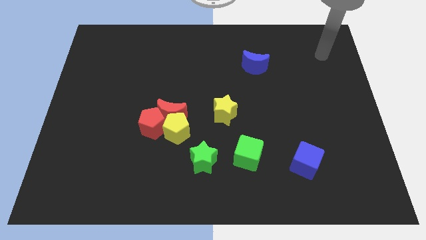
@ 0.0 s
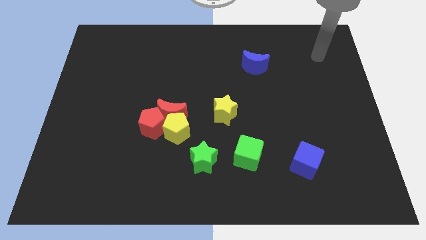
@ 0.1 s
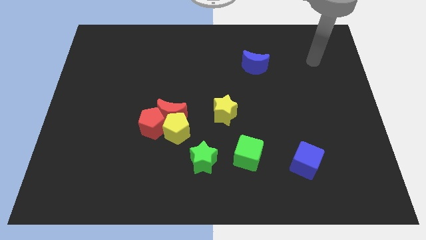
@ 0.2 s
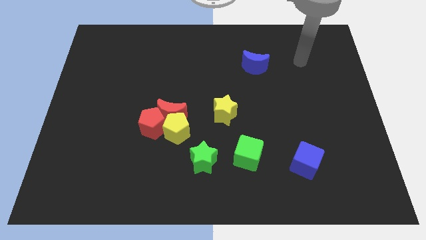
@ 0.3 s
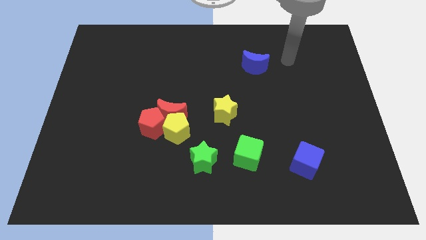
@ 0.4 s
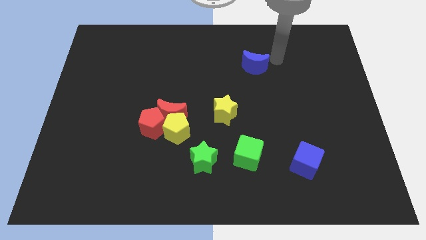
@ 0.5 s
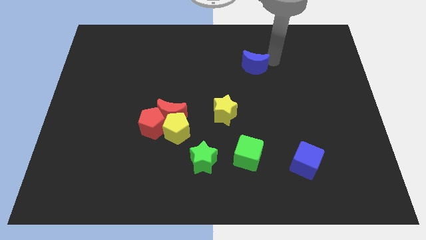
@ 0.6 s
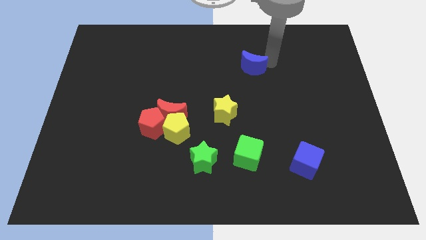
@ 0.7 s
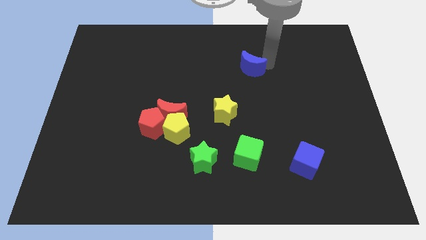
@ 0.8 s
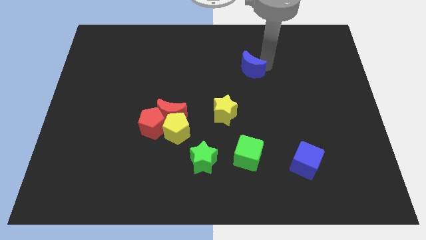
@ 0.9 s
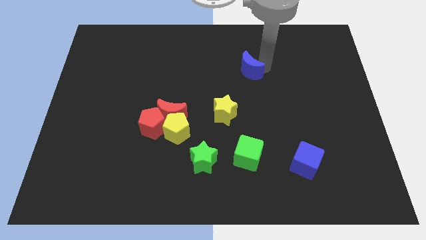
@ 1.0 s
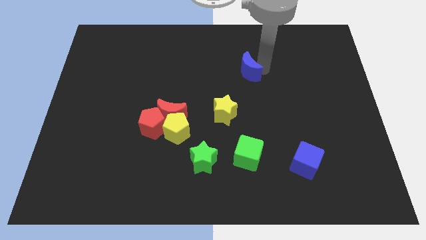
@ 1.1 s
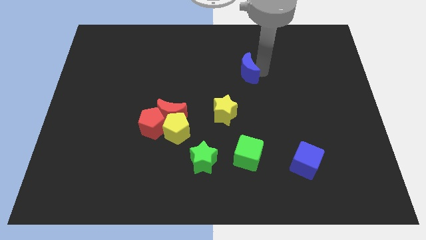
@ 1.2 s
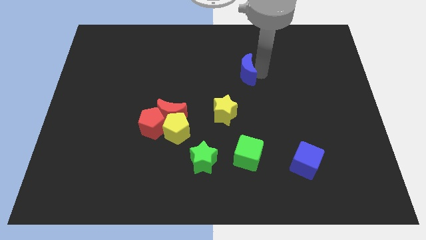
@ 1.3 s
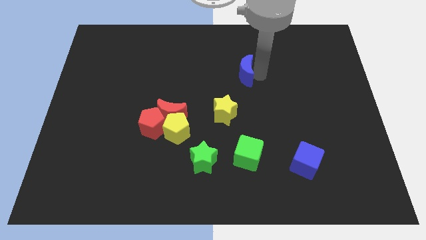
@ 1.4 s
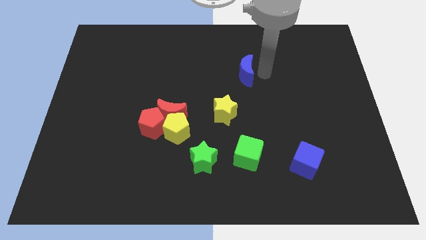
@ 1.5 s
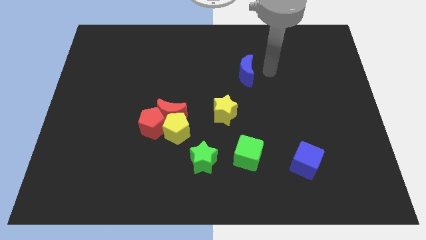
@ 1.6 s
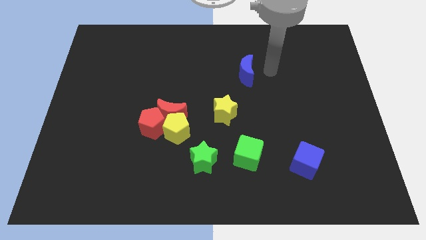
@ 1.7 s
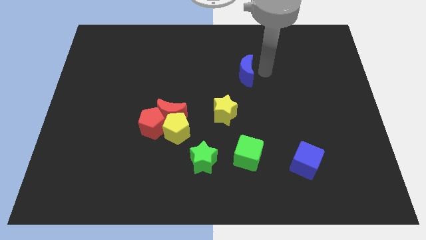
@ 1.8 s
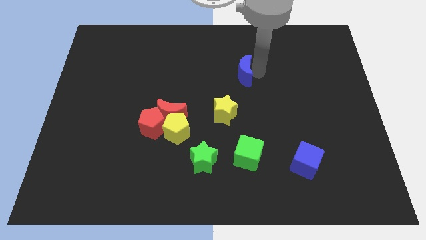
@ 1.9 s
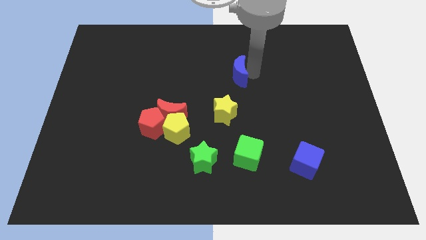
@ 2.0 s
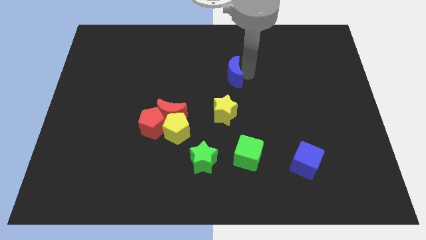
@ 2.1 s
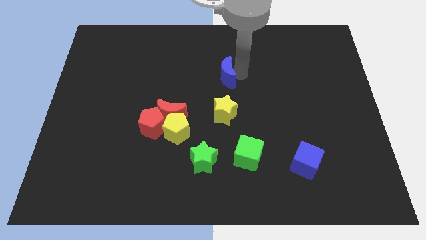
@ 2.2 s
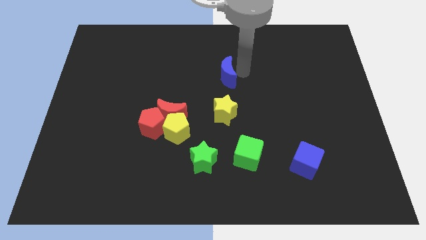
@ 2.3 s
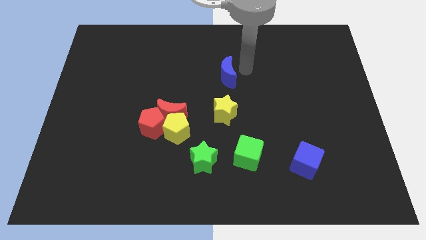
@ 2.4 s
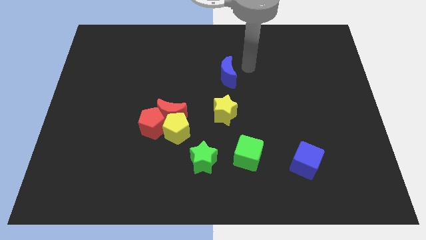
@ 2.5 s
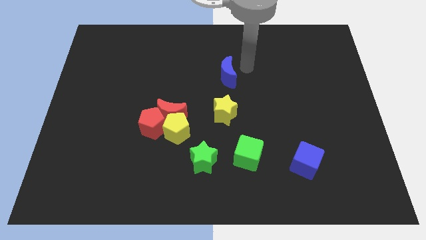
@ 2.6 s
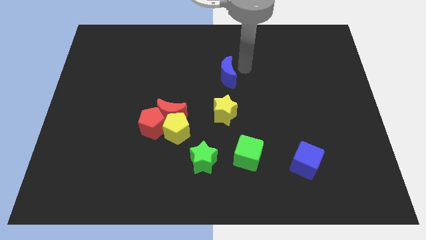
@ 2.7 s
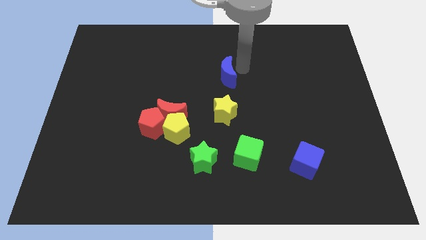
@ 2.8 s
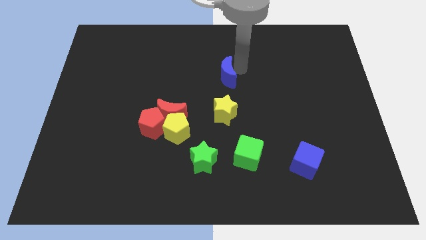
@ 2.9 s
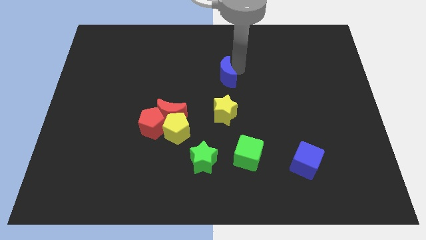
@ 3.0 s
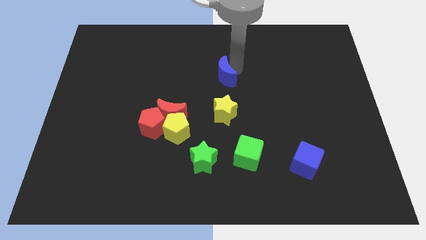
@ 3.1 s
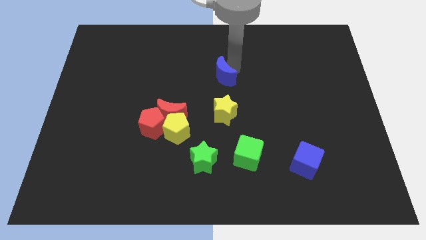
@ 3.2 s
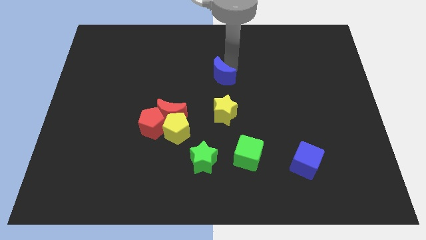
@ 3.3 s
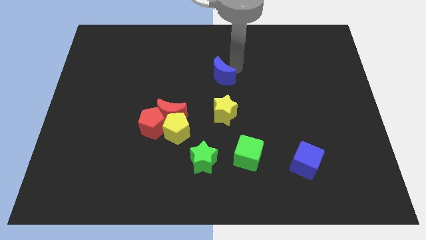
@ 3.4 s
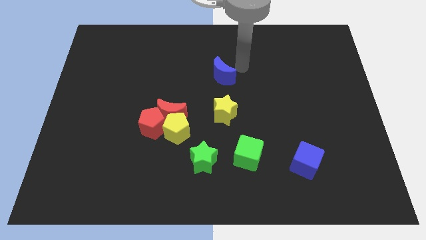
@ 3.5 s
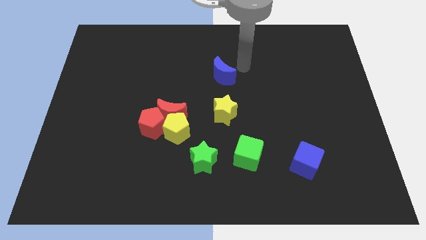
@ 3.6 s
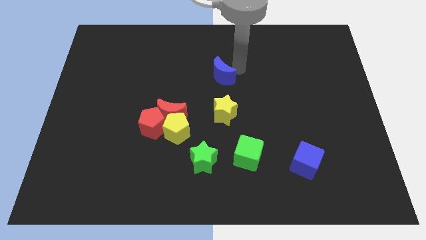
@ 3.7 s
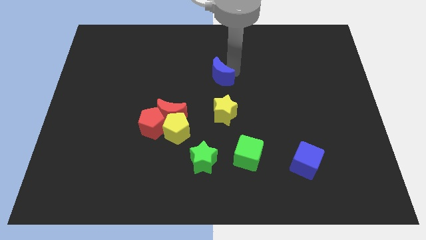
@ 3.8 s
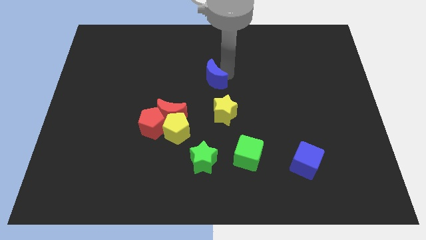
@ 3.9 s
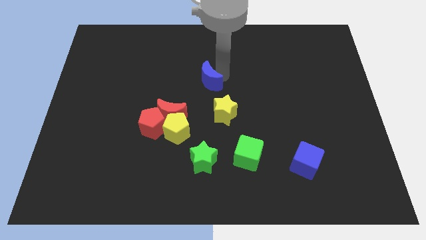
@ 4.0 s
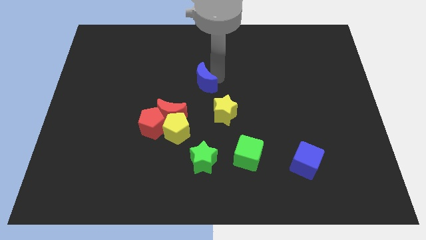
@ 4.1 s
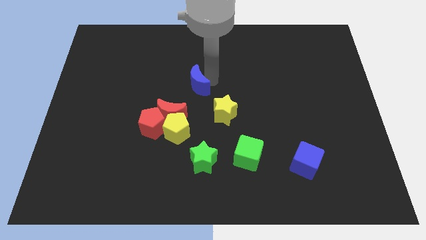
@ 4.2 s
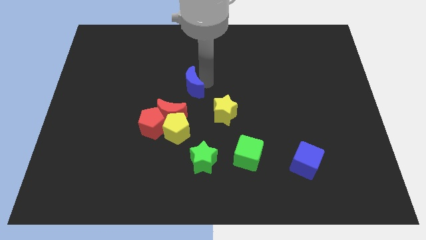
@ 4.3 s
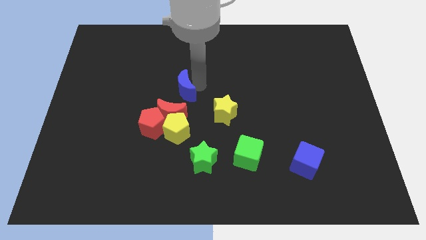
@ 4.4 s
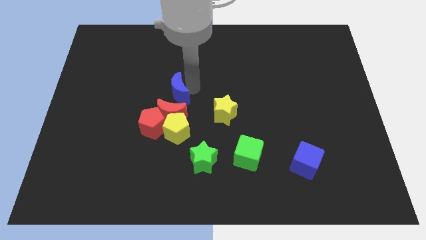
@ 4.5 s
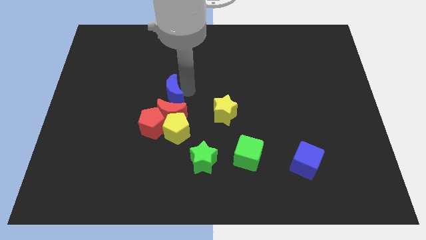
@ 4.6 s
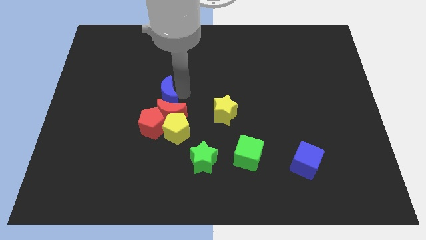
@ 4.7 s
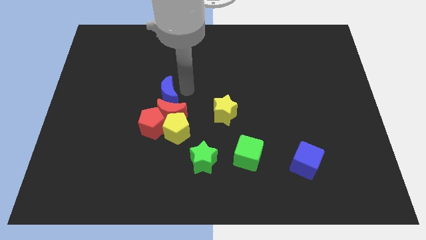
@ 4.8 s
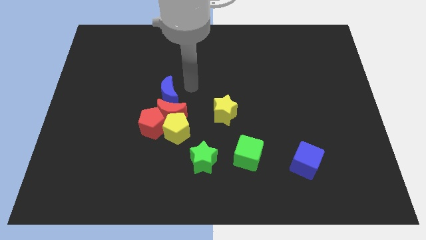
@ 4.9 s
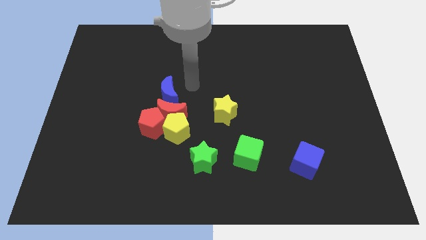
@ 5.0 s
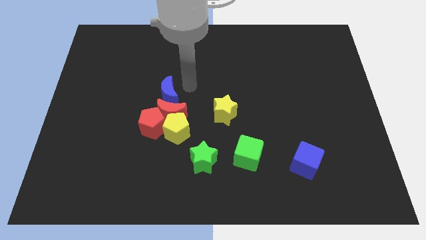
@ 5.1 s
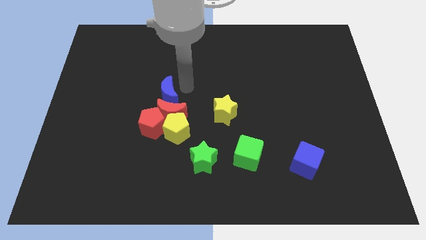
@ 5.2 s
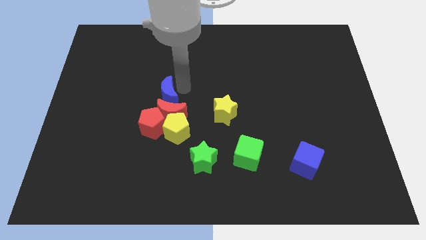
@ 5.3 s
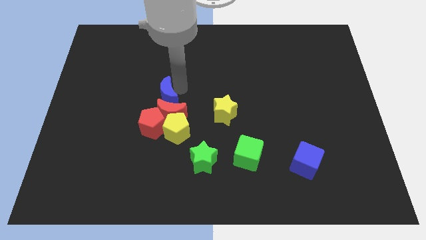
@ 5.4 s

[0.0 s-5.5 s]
move the blue moon down and to the left diagonally

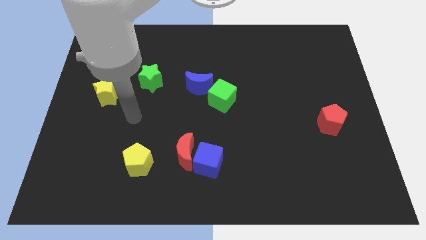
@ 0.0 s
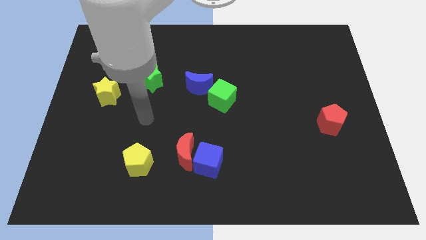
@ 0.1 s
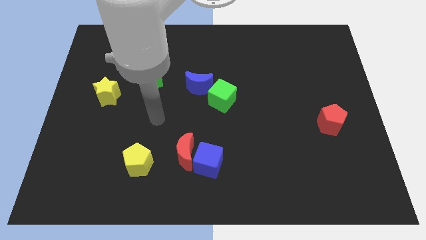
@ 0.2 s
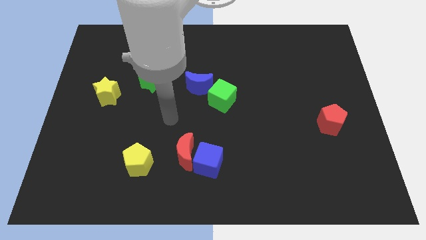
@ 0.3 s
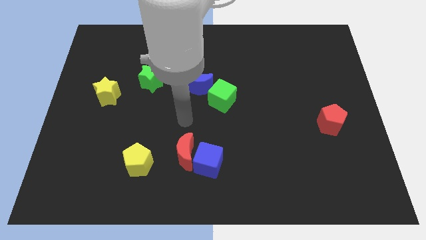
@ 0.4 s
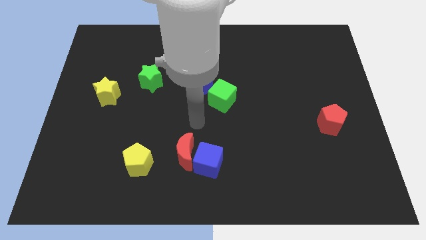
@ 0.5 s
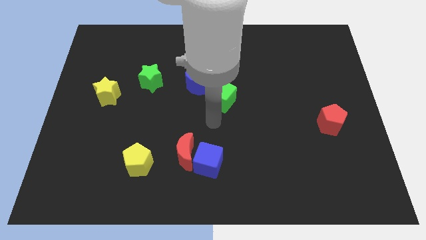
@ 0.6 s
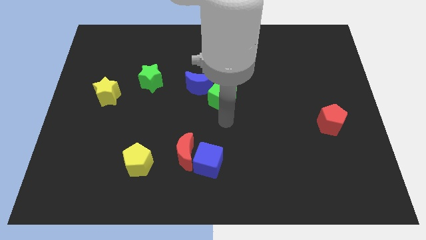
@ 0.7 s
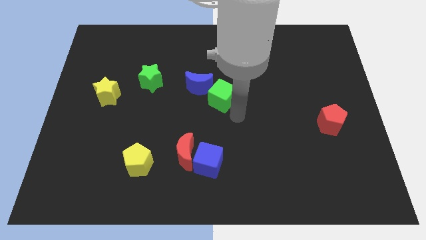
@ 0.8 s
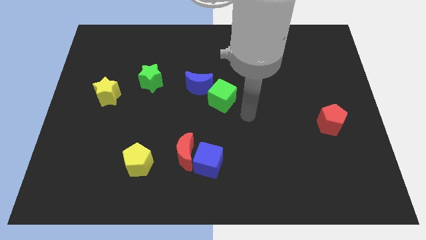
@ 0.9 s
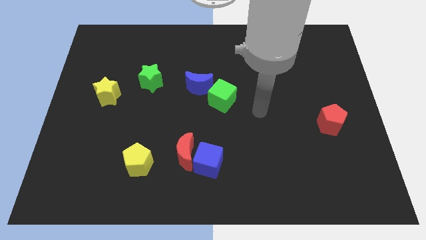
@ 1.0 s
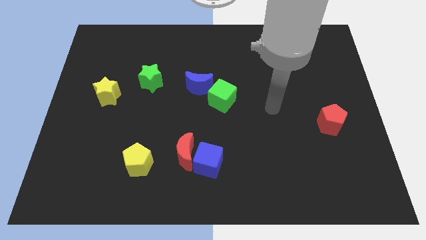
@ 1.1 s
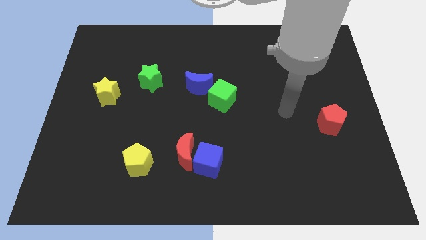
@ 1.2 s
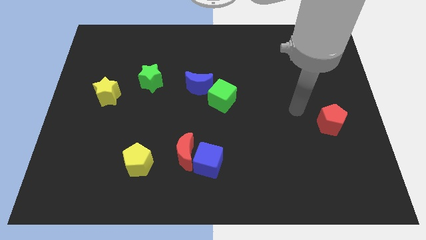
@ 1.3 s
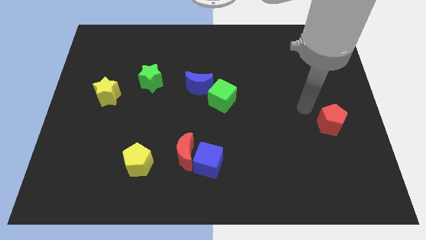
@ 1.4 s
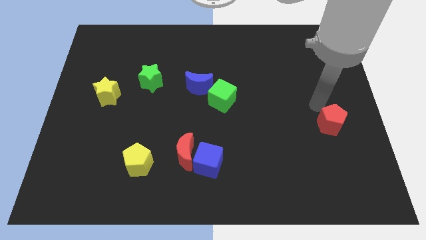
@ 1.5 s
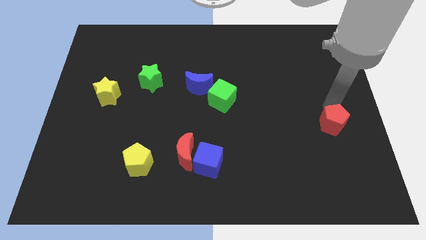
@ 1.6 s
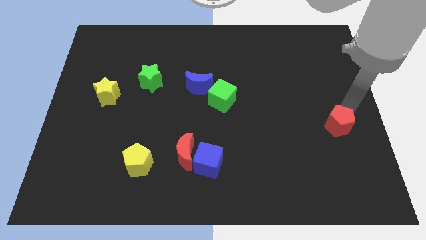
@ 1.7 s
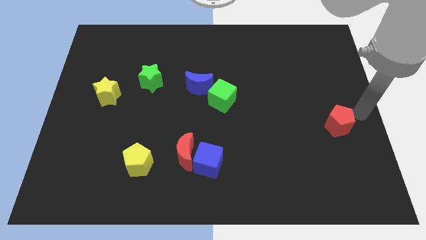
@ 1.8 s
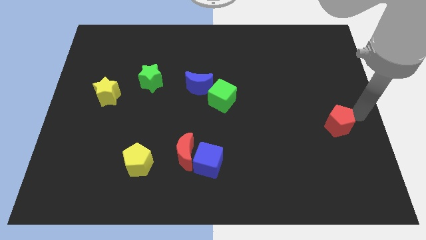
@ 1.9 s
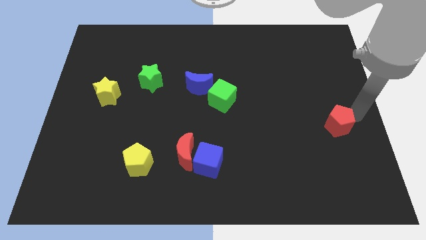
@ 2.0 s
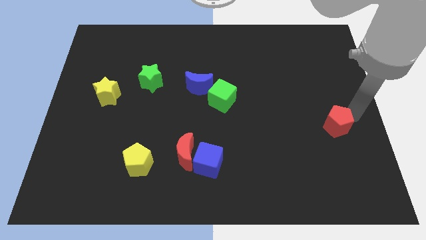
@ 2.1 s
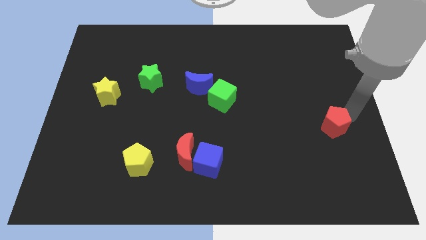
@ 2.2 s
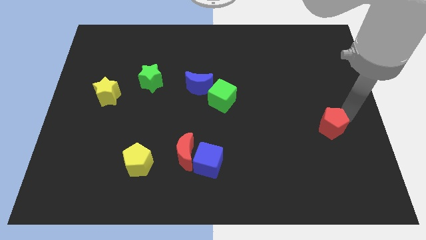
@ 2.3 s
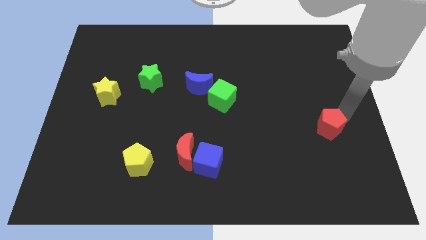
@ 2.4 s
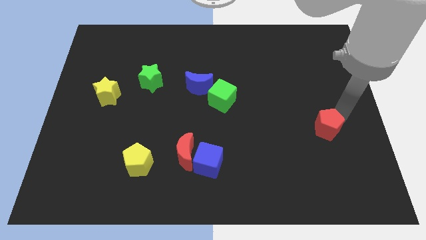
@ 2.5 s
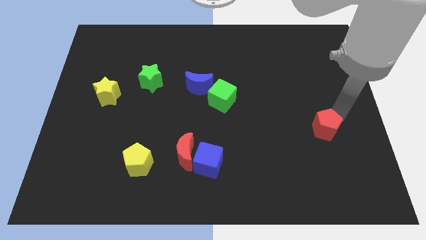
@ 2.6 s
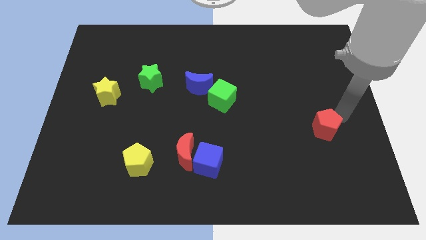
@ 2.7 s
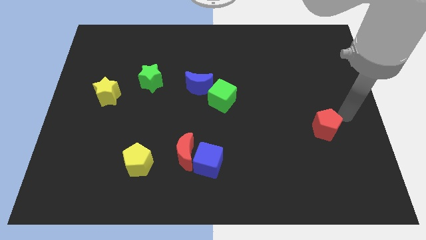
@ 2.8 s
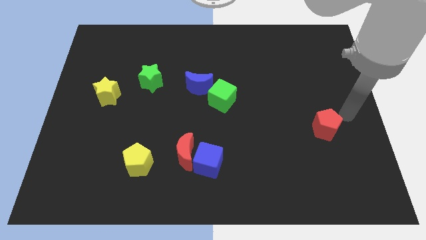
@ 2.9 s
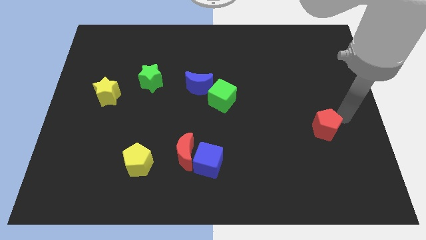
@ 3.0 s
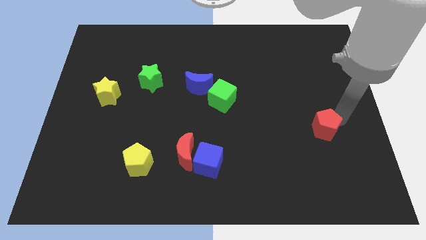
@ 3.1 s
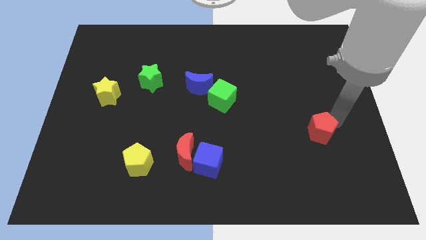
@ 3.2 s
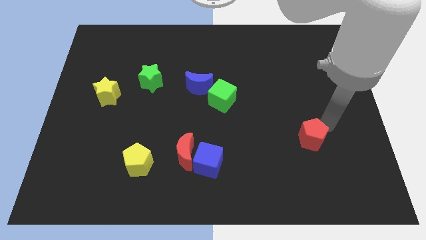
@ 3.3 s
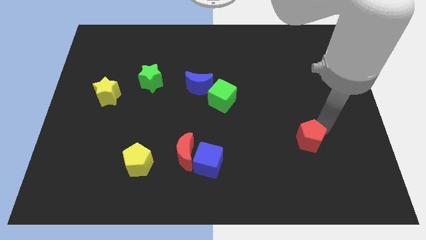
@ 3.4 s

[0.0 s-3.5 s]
slightly move the red pentagon diagonally downwards and to the left
